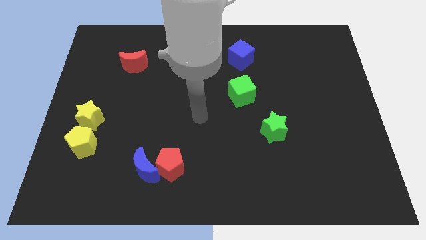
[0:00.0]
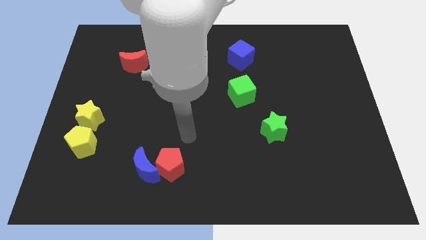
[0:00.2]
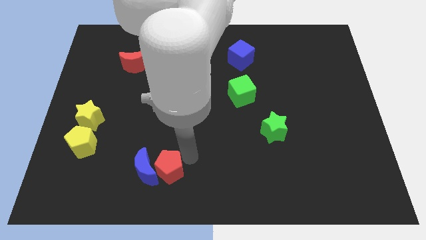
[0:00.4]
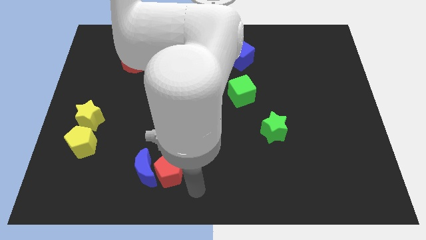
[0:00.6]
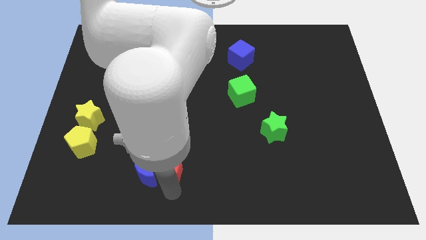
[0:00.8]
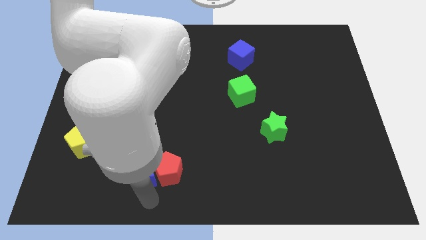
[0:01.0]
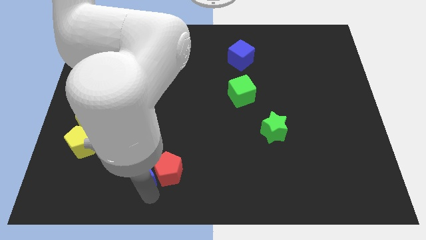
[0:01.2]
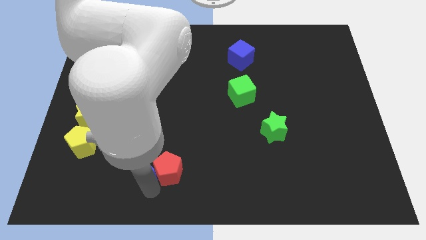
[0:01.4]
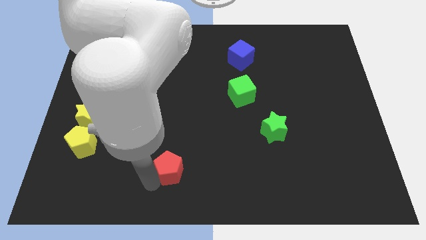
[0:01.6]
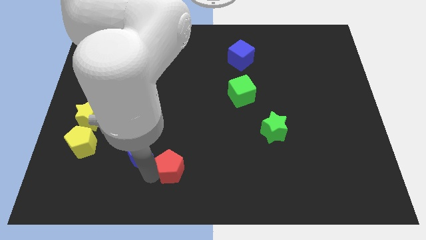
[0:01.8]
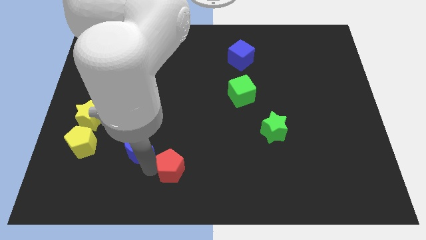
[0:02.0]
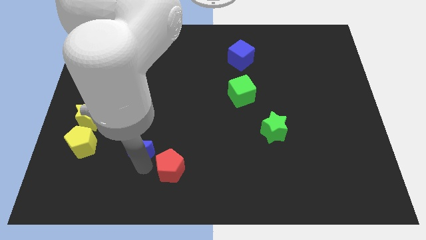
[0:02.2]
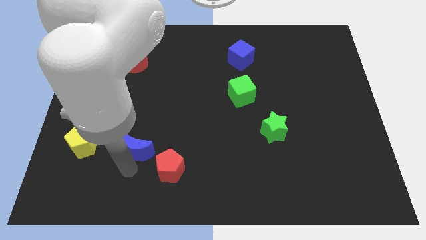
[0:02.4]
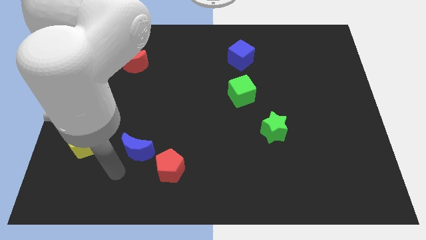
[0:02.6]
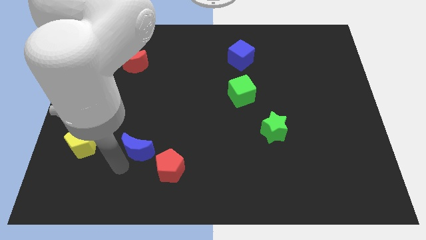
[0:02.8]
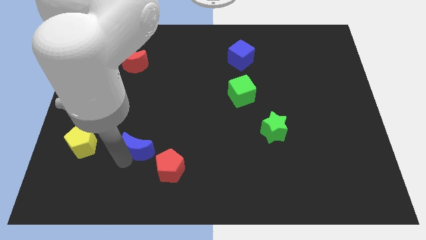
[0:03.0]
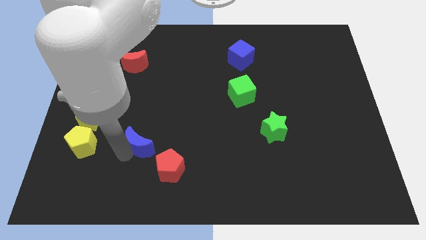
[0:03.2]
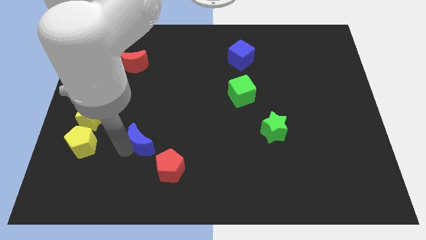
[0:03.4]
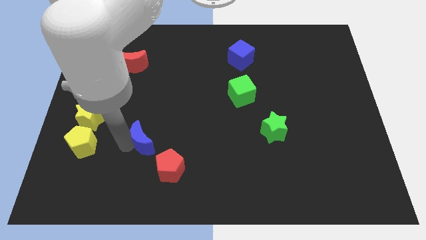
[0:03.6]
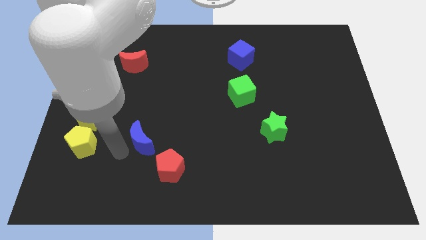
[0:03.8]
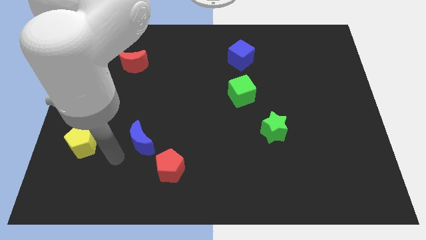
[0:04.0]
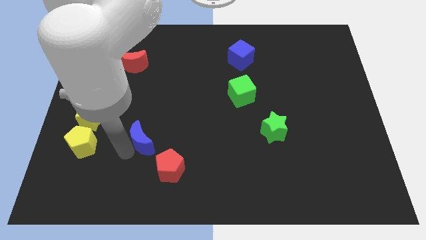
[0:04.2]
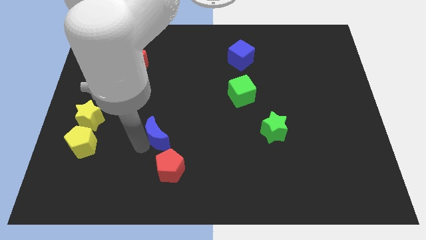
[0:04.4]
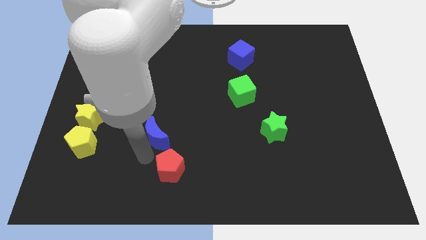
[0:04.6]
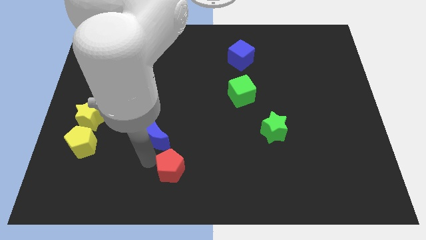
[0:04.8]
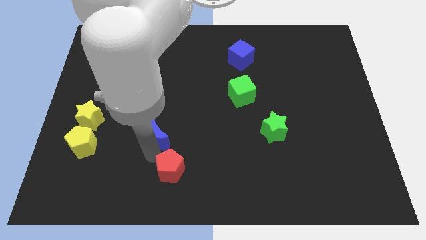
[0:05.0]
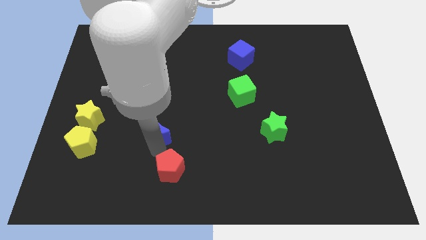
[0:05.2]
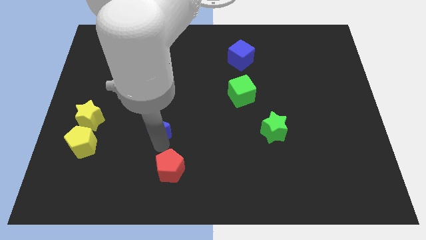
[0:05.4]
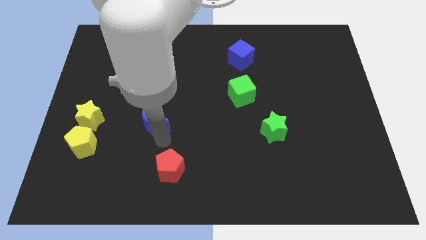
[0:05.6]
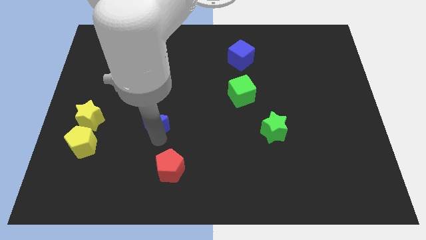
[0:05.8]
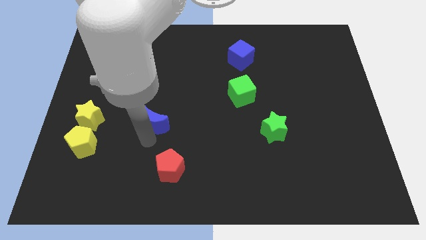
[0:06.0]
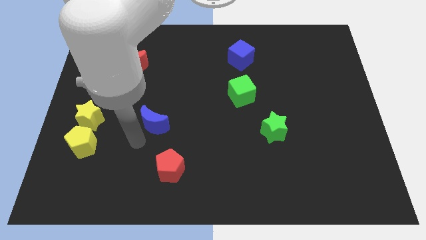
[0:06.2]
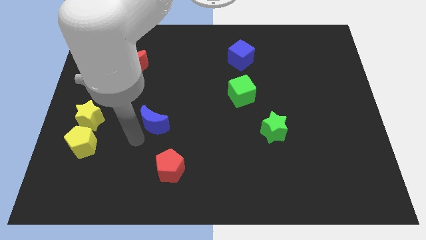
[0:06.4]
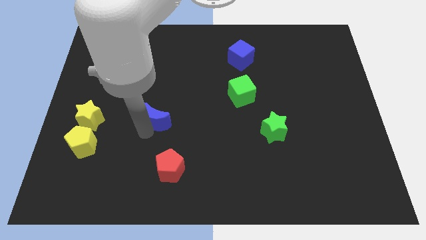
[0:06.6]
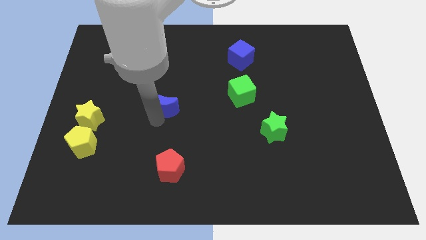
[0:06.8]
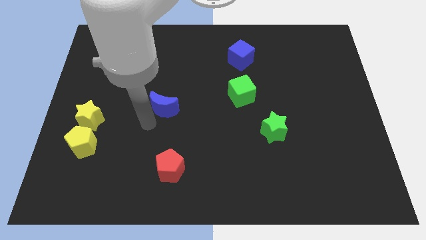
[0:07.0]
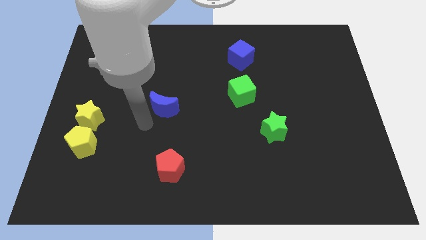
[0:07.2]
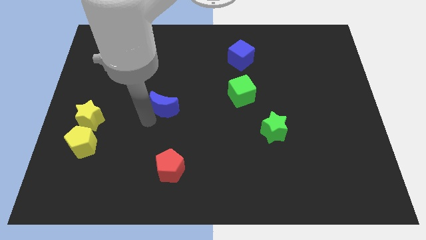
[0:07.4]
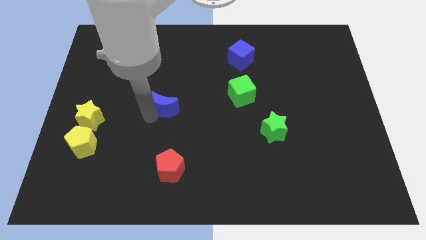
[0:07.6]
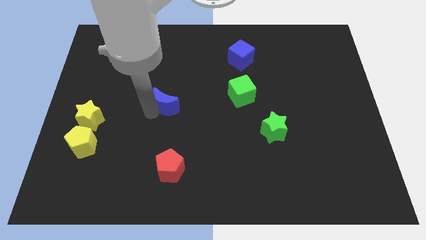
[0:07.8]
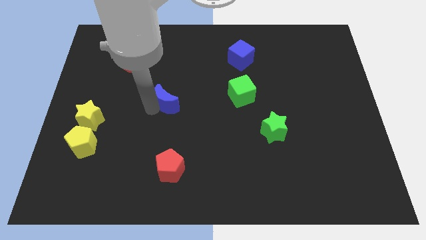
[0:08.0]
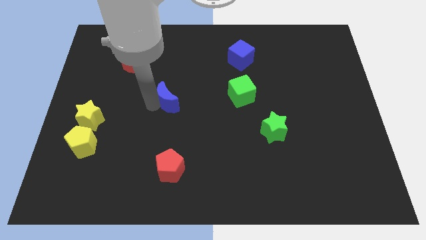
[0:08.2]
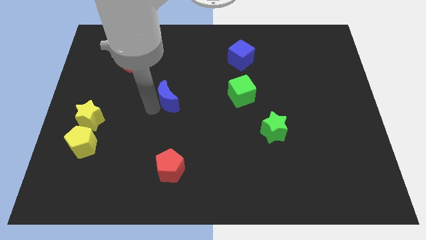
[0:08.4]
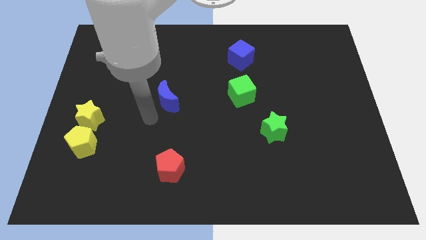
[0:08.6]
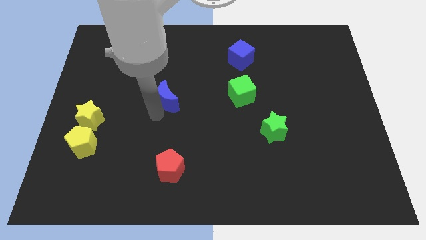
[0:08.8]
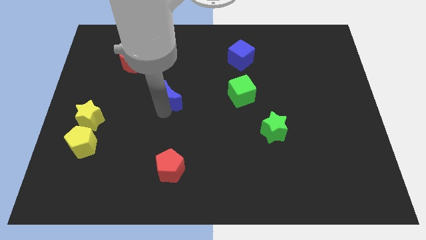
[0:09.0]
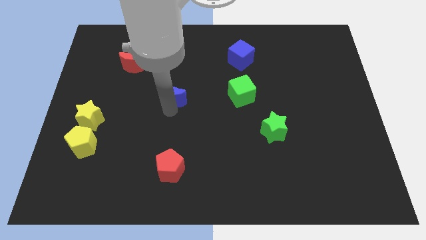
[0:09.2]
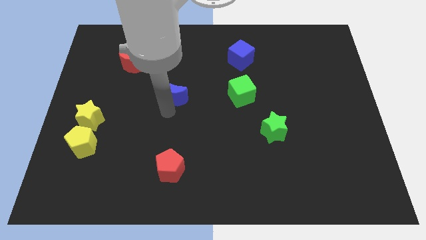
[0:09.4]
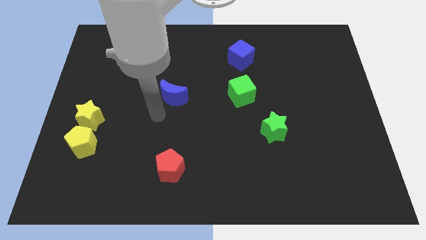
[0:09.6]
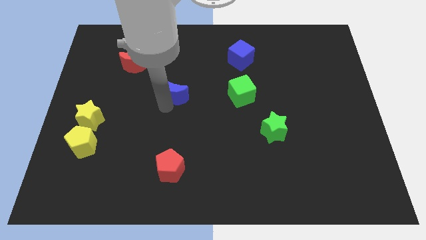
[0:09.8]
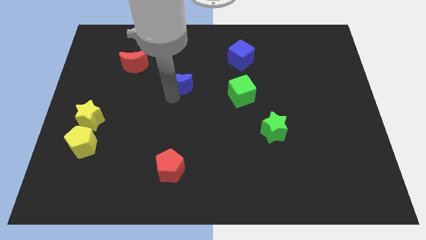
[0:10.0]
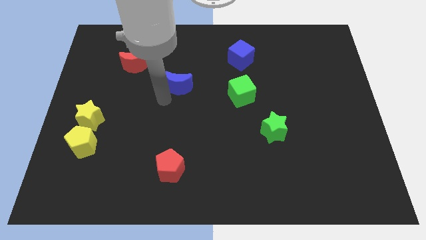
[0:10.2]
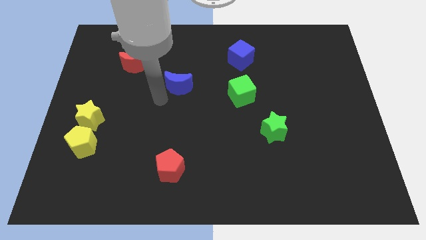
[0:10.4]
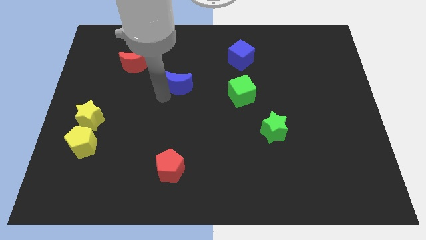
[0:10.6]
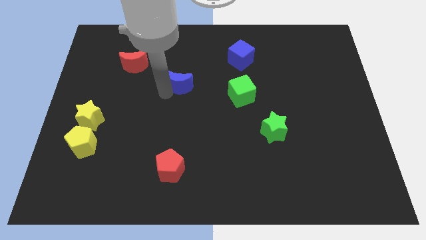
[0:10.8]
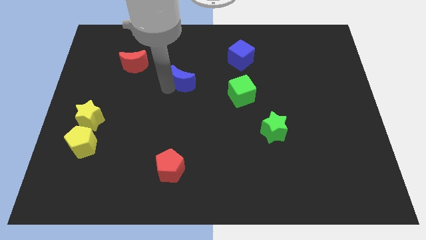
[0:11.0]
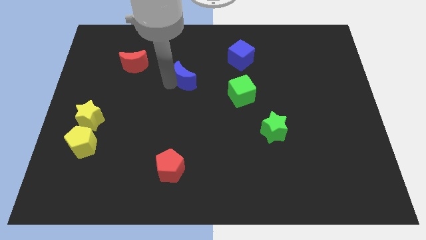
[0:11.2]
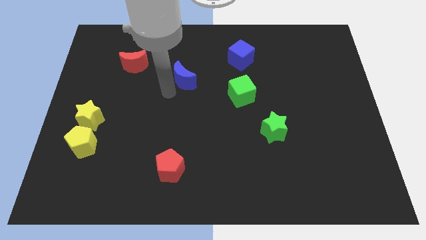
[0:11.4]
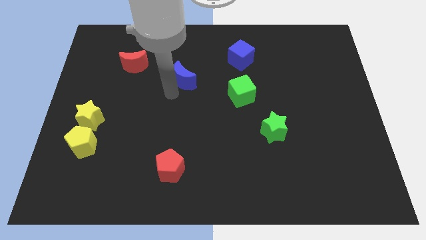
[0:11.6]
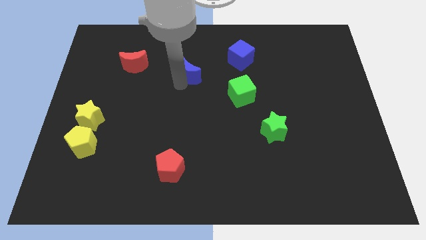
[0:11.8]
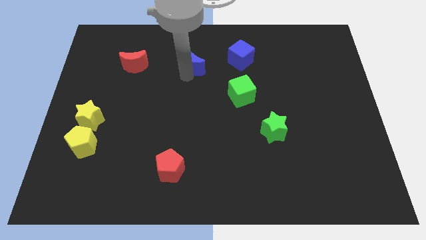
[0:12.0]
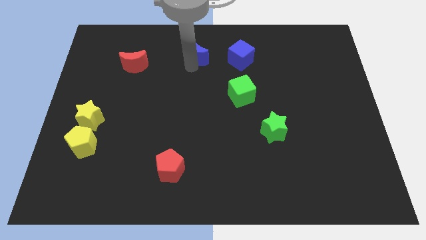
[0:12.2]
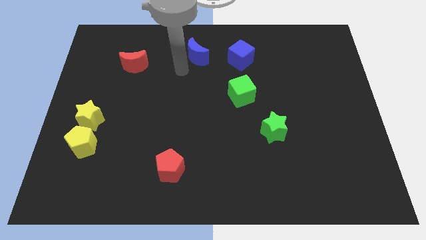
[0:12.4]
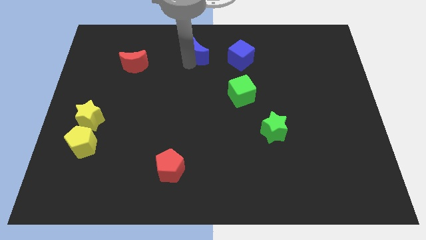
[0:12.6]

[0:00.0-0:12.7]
push the blue moon to the top

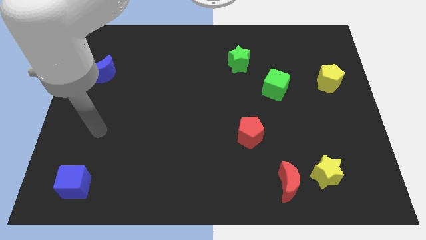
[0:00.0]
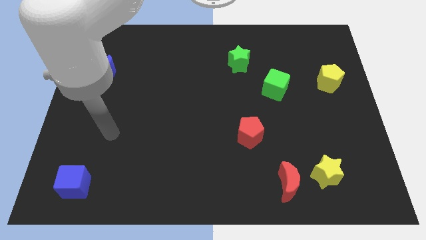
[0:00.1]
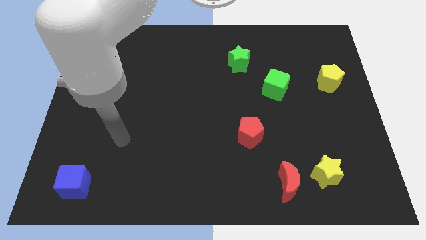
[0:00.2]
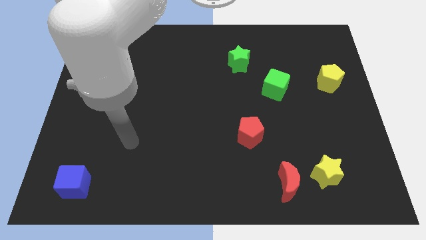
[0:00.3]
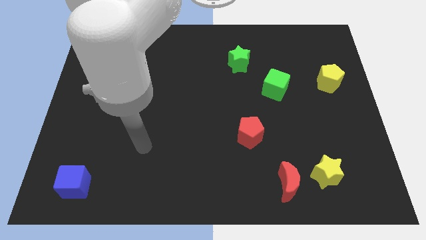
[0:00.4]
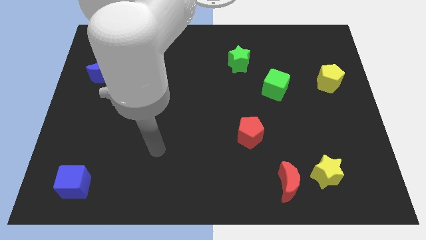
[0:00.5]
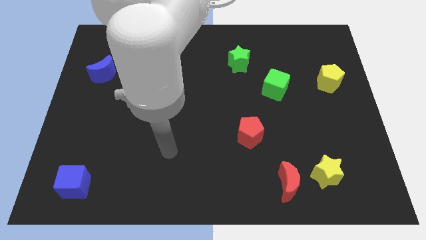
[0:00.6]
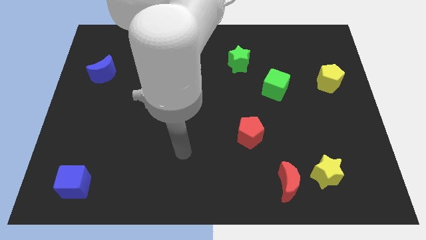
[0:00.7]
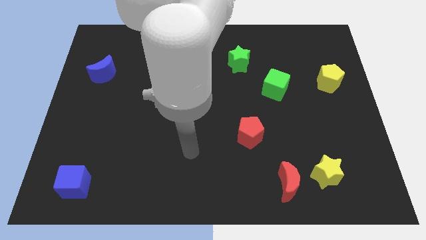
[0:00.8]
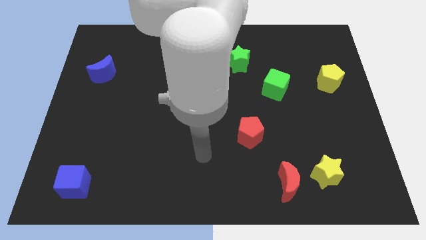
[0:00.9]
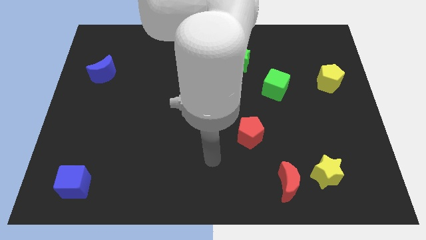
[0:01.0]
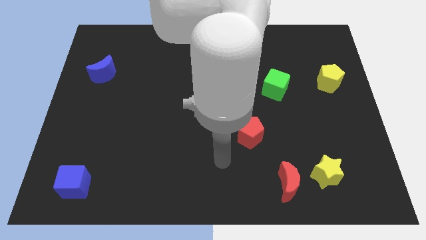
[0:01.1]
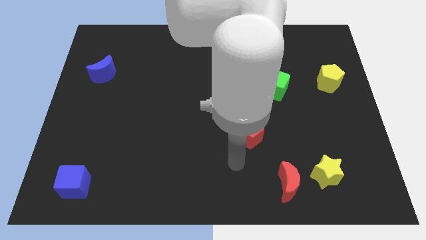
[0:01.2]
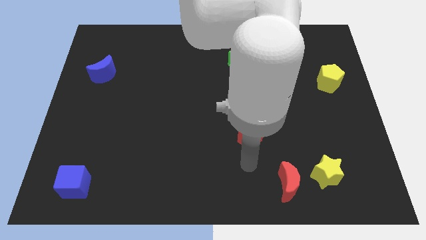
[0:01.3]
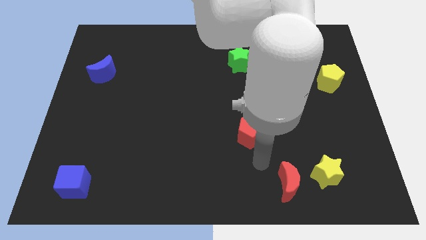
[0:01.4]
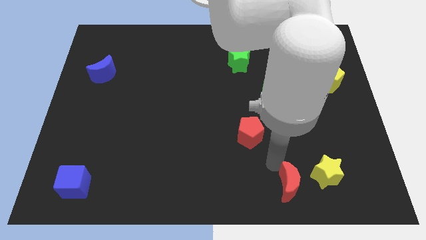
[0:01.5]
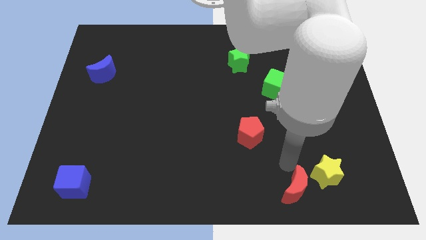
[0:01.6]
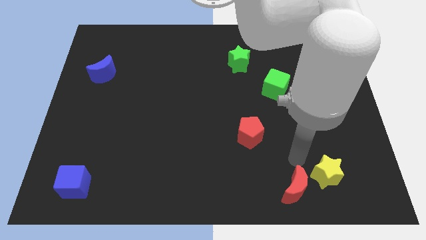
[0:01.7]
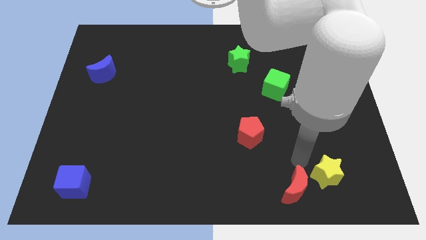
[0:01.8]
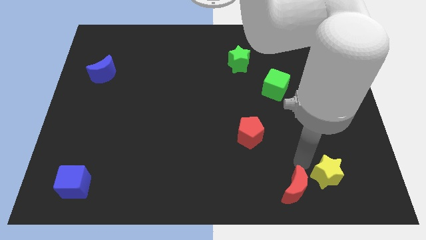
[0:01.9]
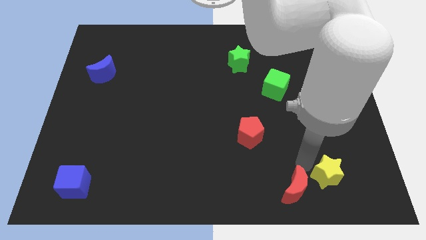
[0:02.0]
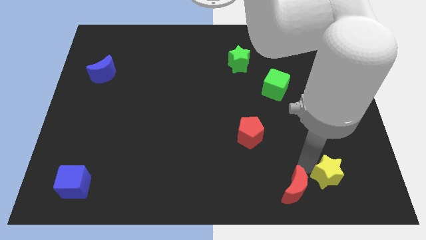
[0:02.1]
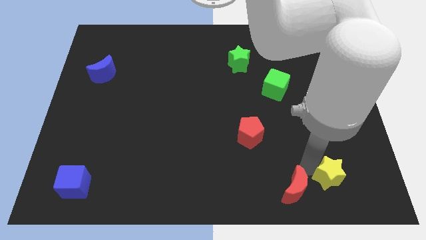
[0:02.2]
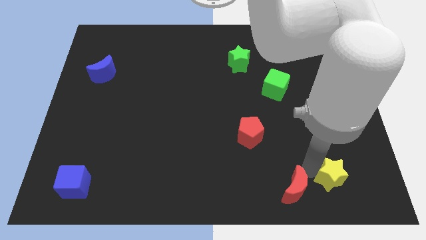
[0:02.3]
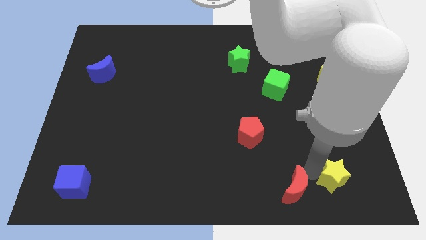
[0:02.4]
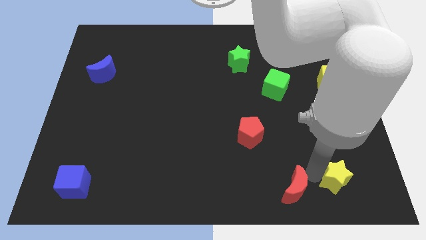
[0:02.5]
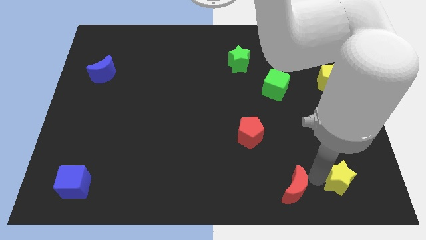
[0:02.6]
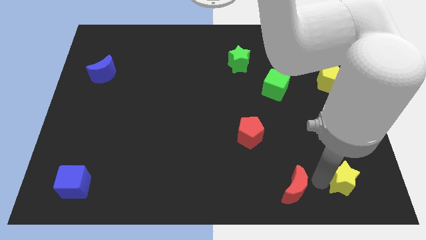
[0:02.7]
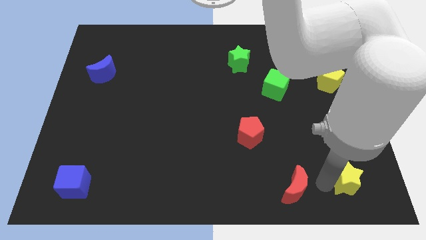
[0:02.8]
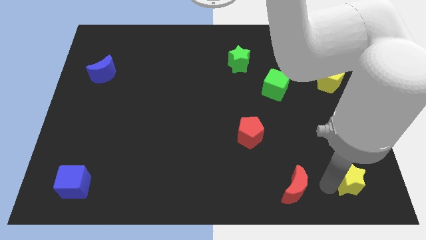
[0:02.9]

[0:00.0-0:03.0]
move the yellow star to the bottom right
